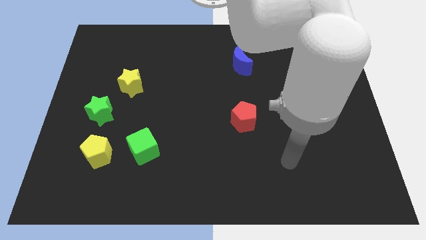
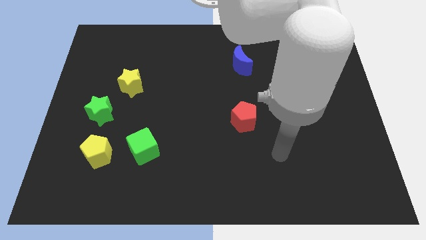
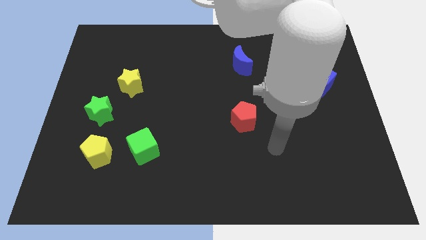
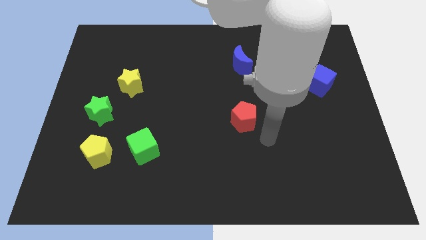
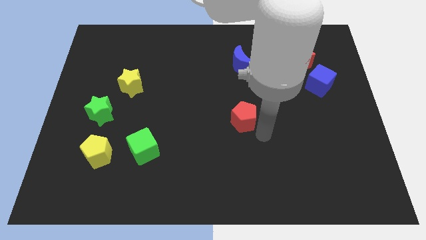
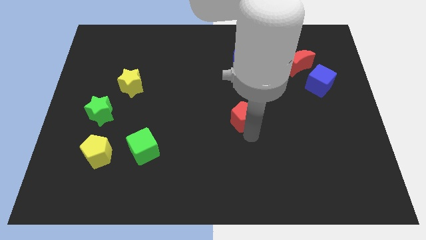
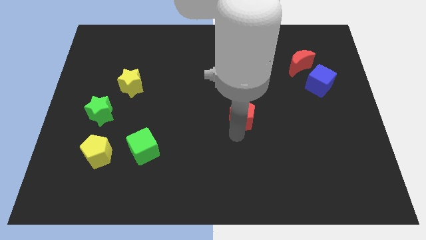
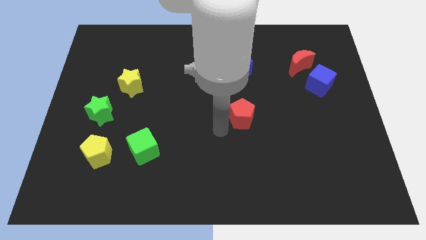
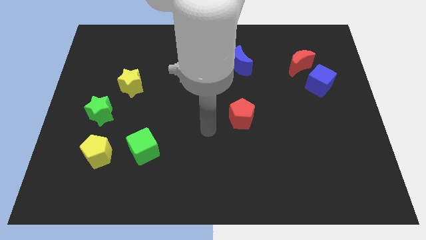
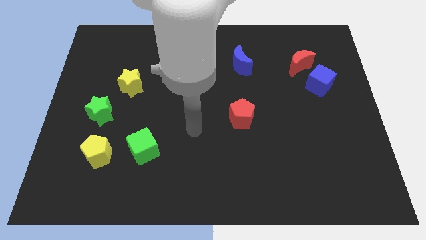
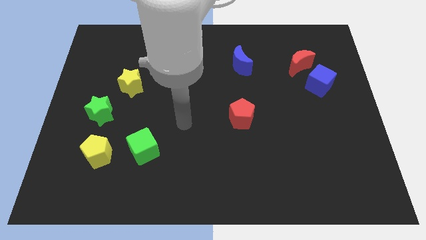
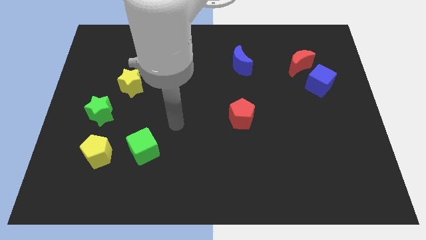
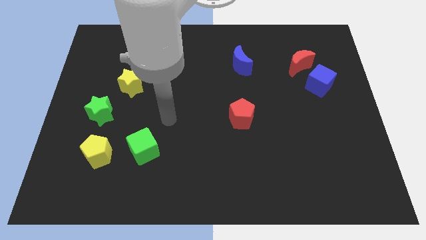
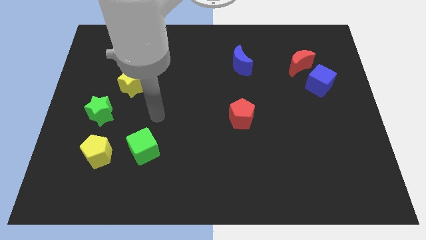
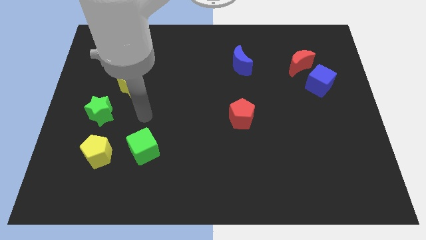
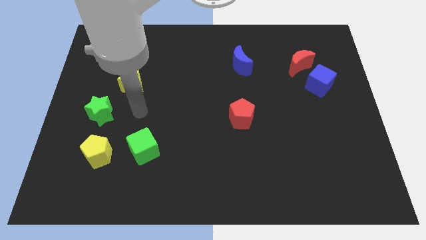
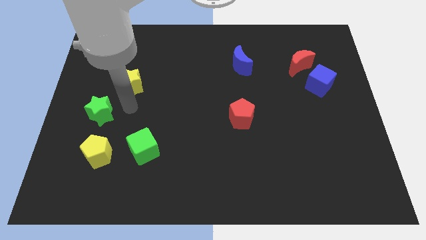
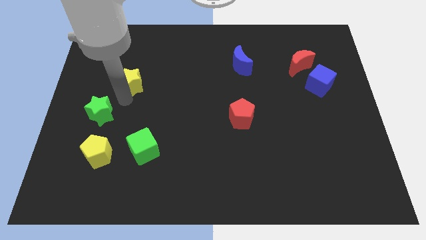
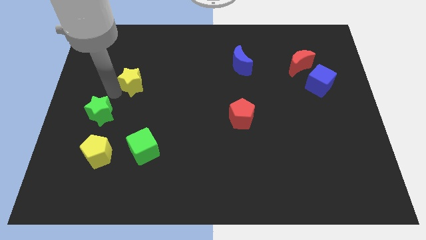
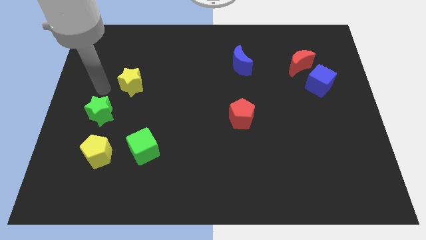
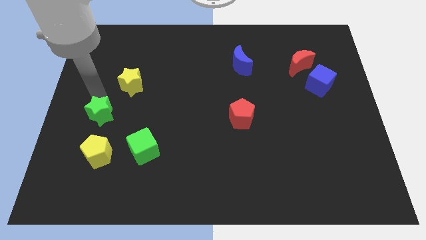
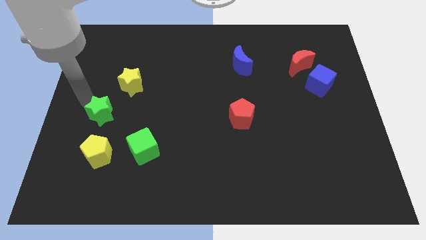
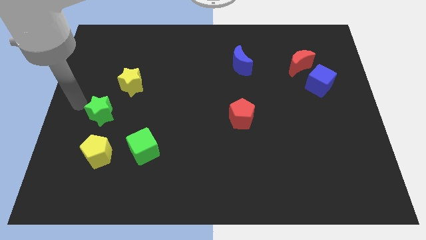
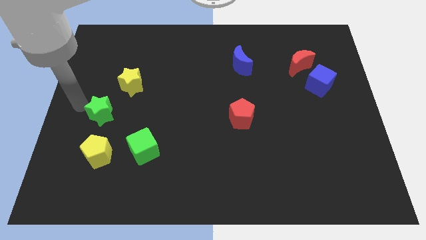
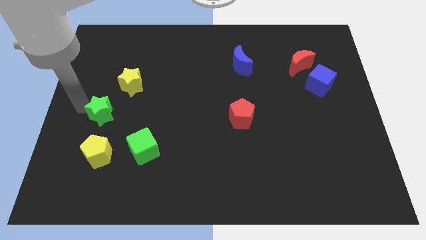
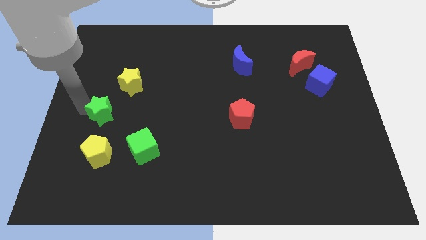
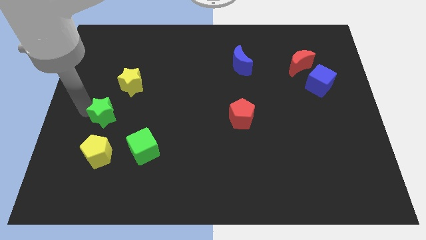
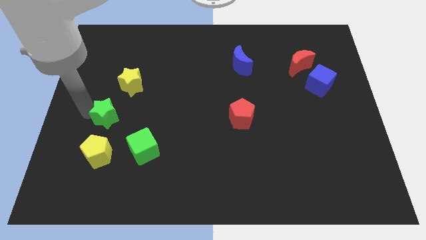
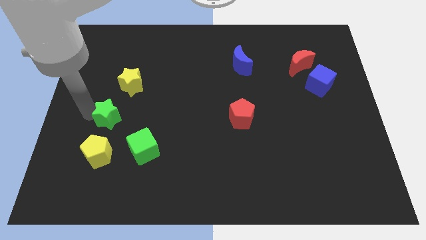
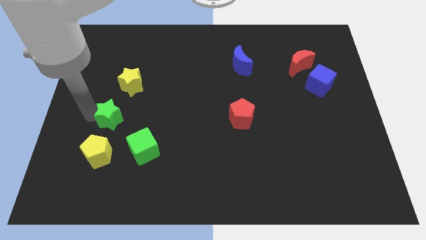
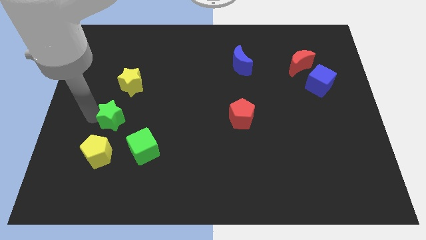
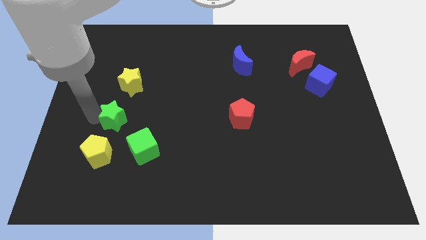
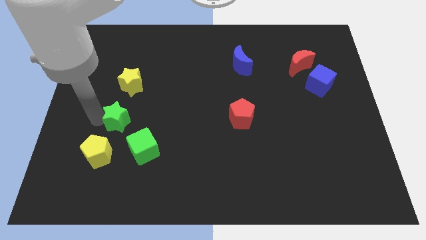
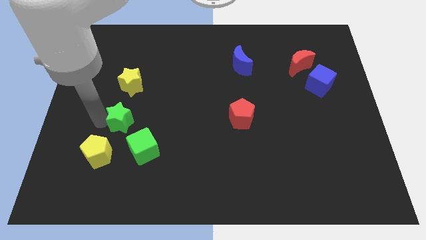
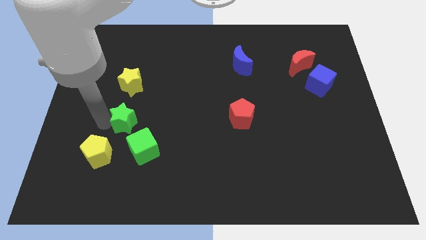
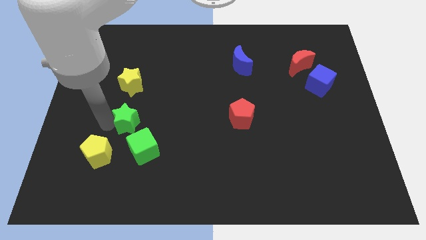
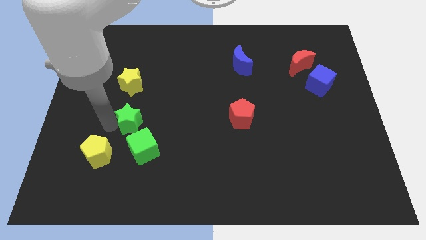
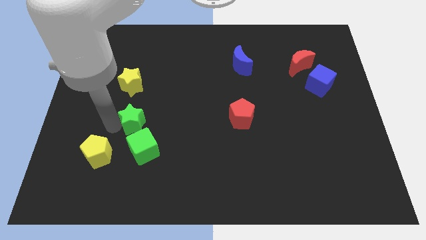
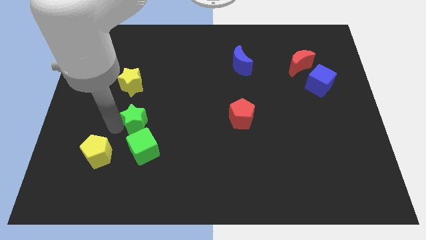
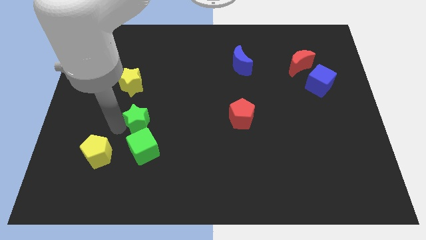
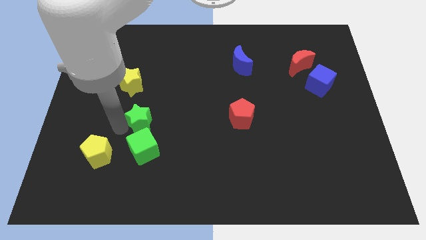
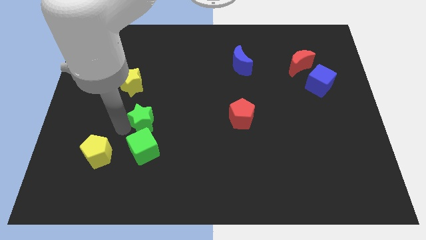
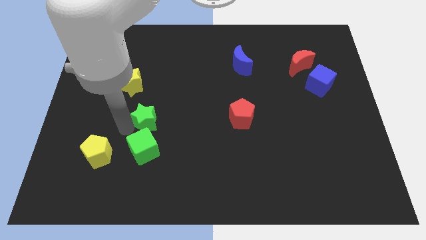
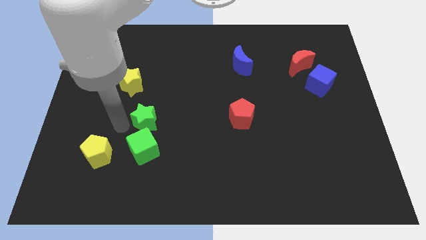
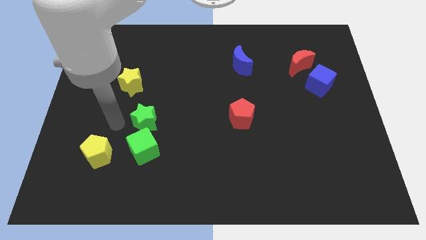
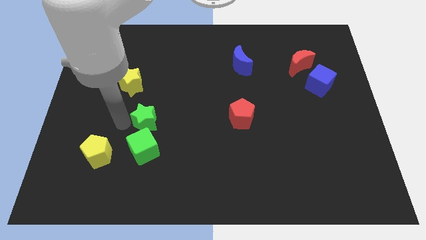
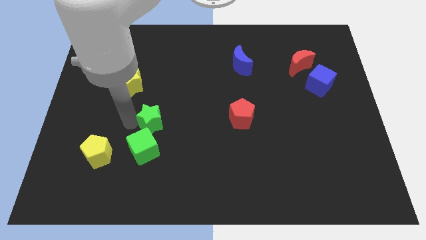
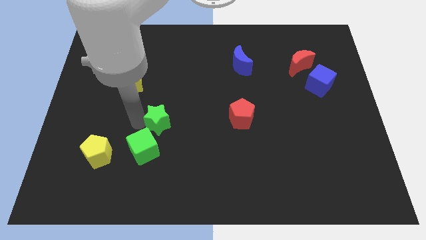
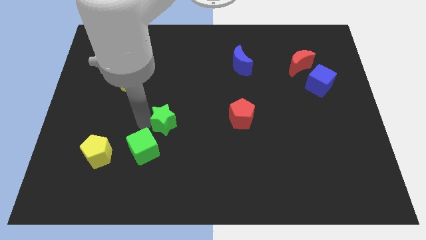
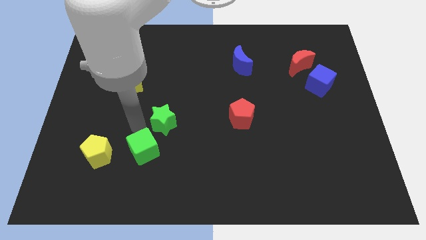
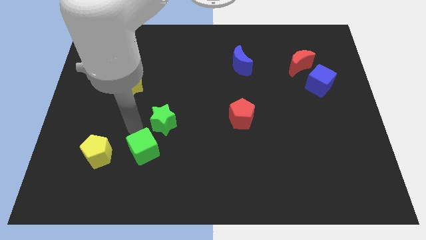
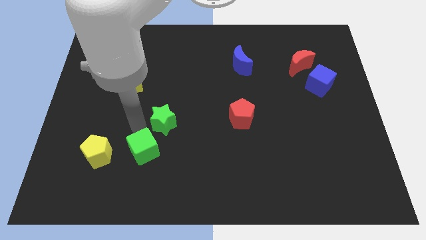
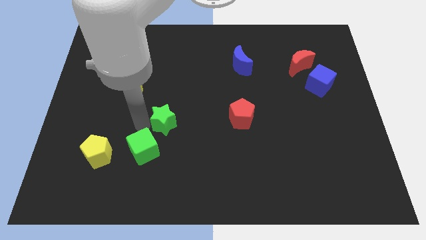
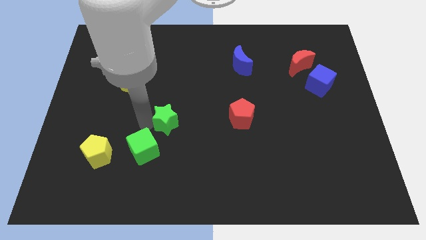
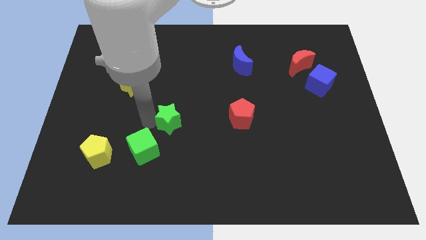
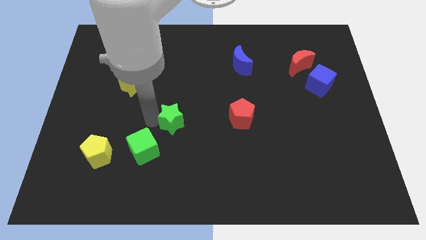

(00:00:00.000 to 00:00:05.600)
slide the green star just left of the red pentagon

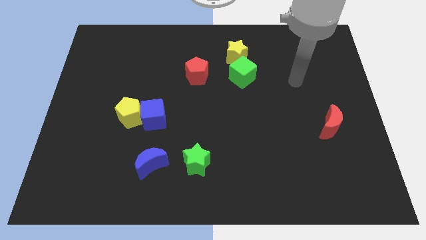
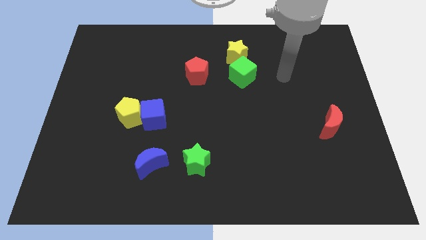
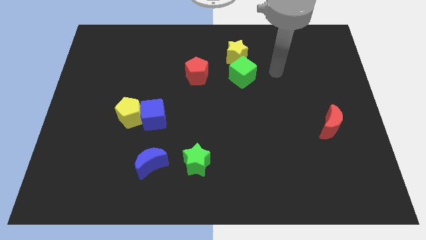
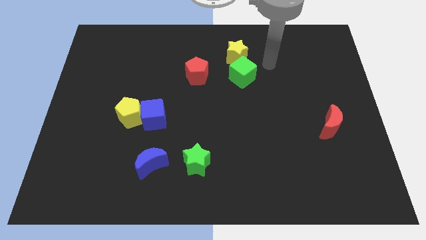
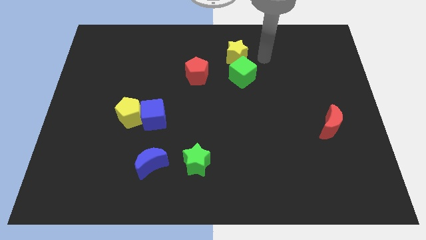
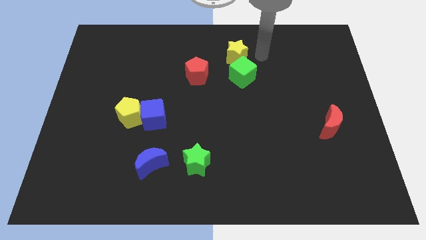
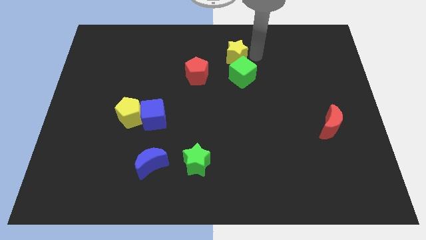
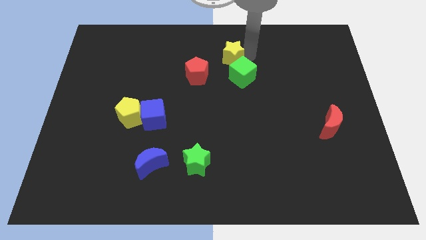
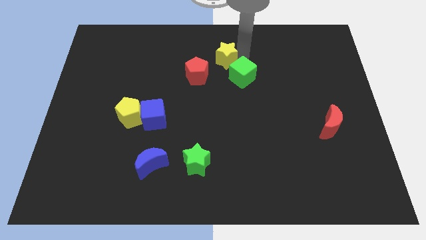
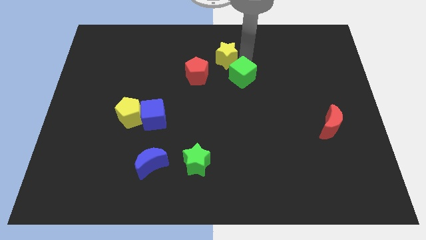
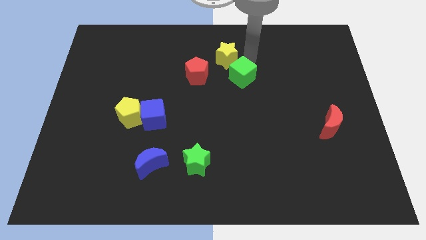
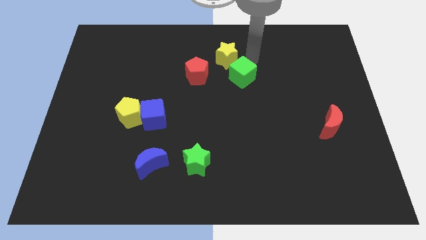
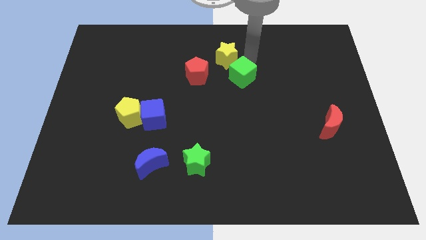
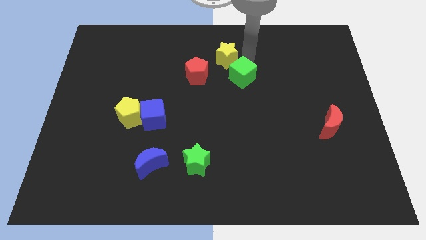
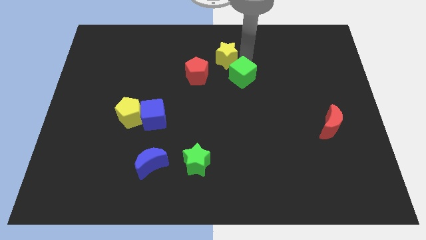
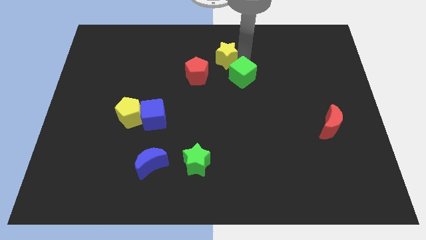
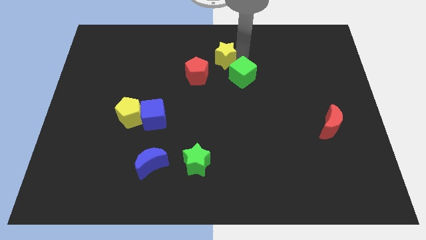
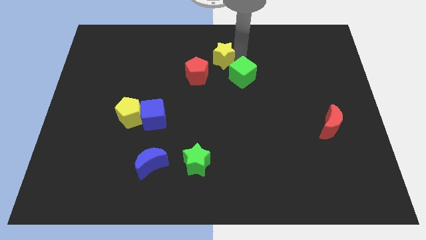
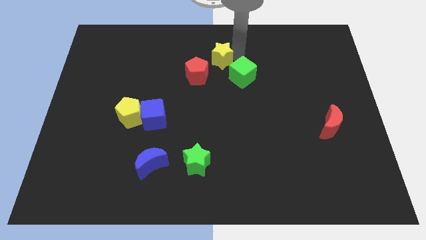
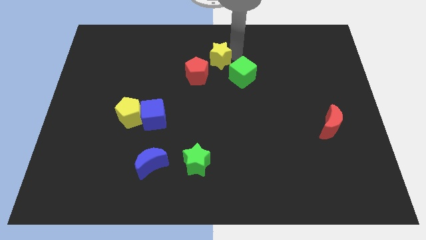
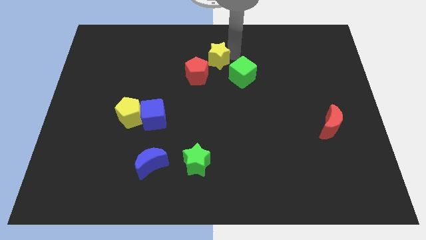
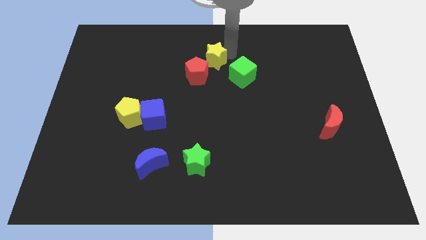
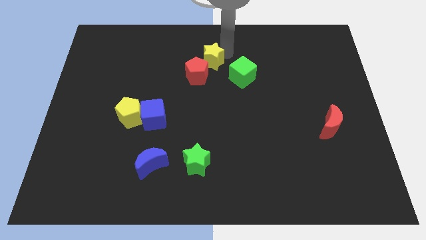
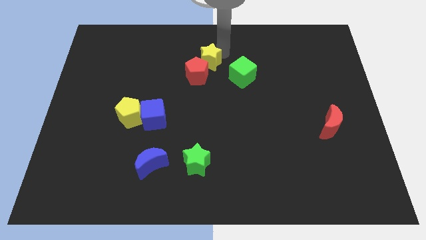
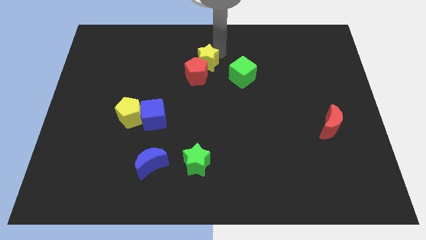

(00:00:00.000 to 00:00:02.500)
put the yellow star just left of the green cube
